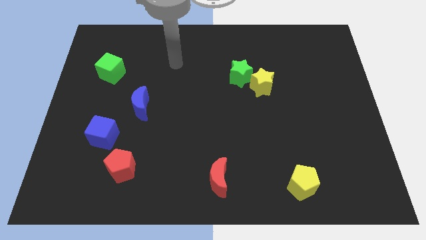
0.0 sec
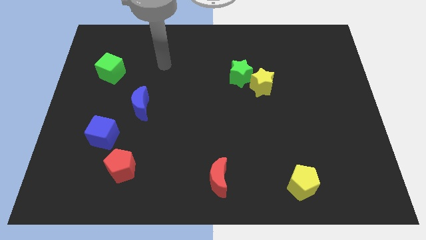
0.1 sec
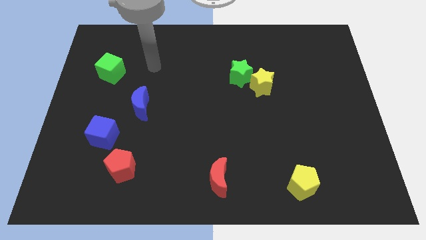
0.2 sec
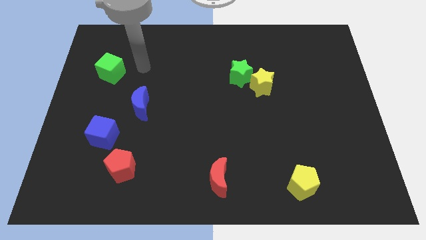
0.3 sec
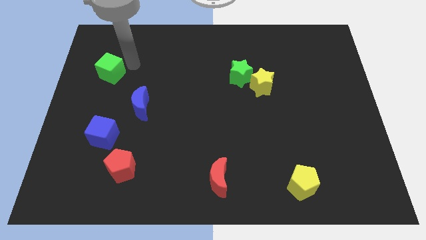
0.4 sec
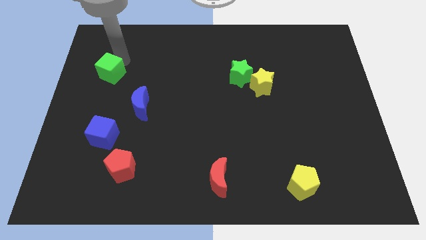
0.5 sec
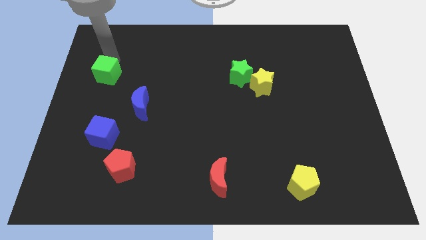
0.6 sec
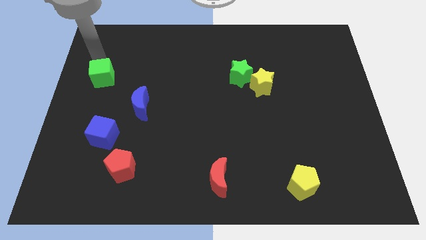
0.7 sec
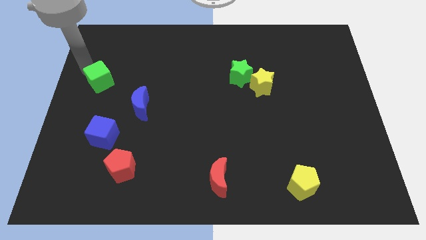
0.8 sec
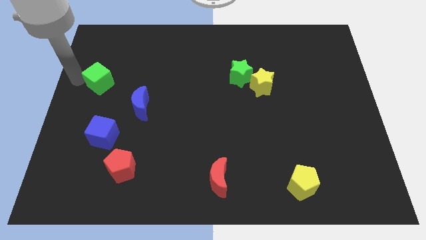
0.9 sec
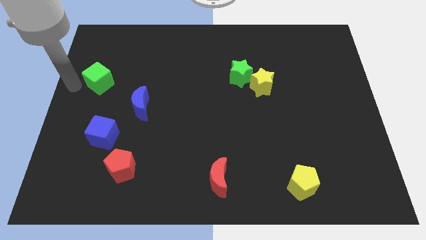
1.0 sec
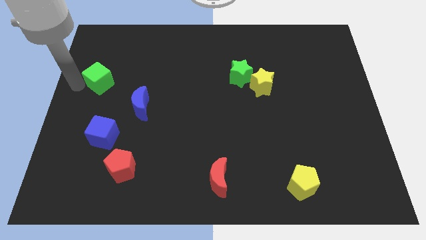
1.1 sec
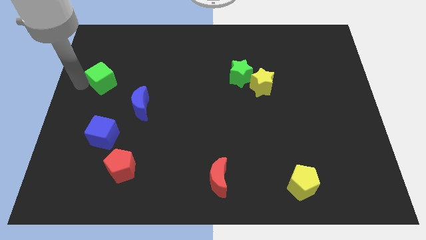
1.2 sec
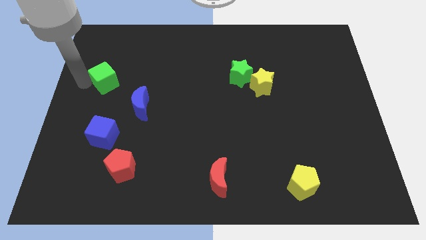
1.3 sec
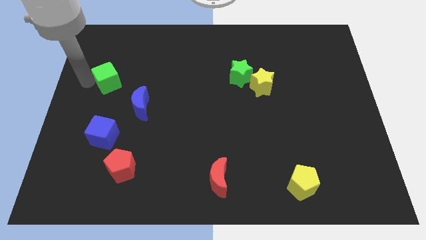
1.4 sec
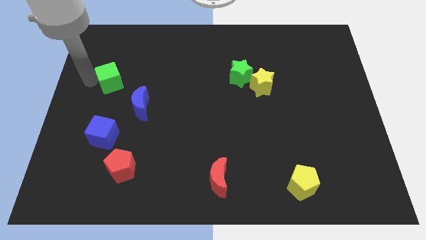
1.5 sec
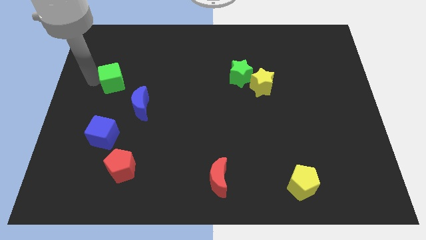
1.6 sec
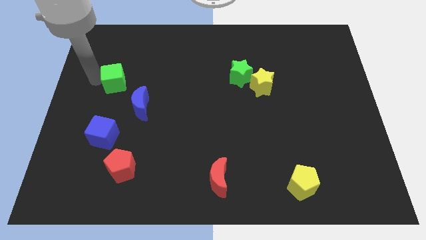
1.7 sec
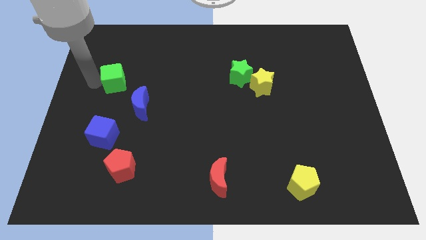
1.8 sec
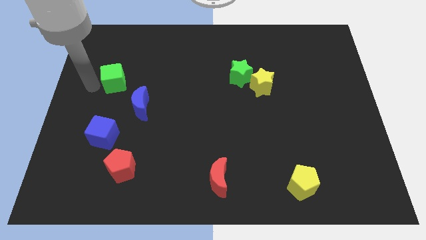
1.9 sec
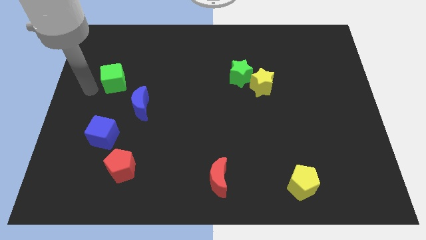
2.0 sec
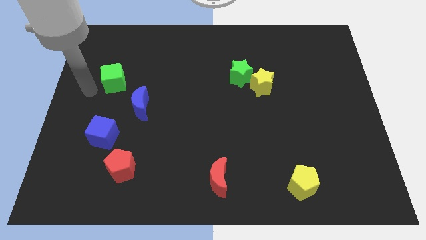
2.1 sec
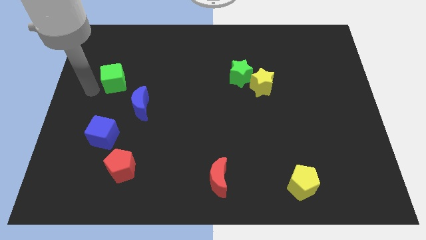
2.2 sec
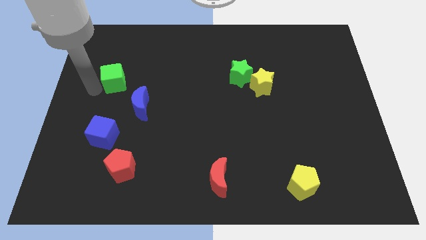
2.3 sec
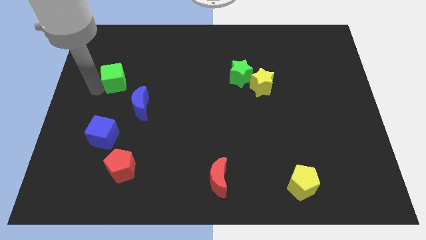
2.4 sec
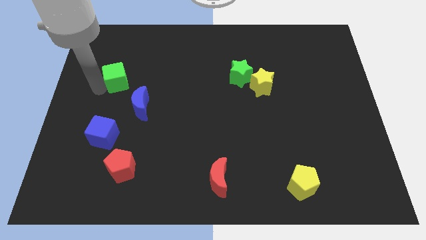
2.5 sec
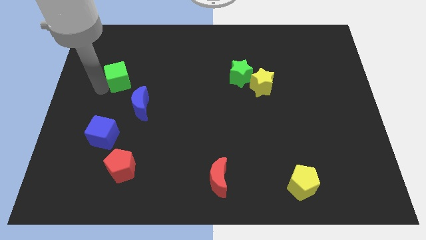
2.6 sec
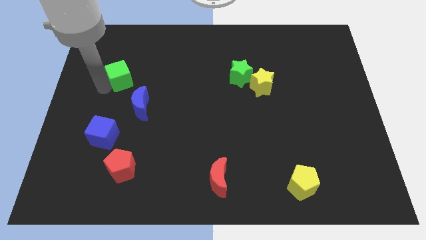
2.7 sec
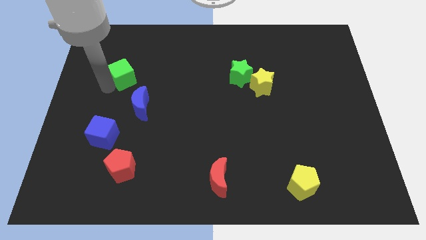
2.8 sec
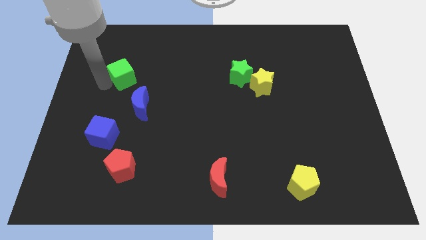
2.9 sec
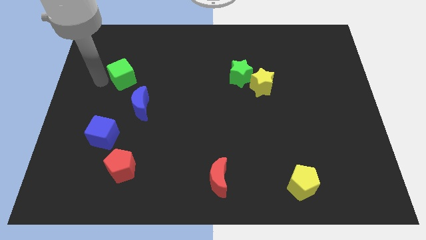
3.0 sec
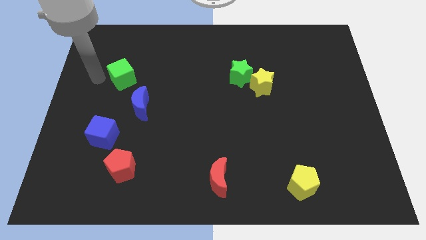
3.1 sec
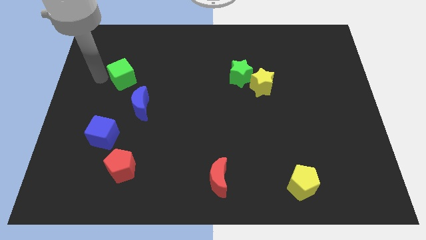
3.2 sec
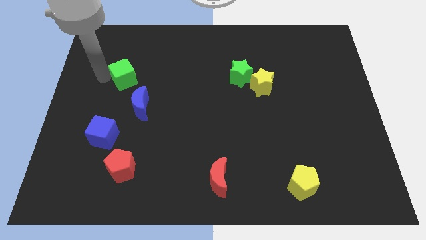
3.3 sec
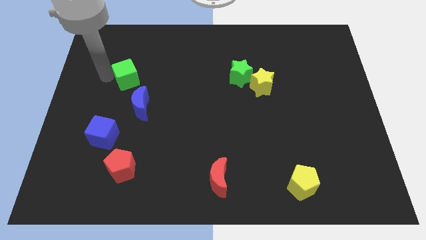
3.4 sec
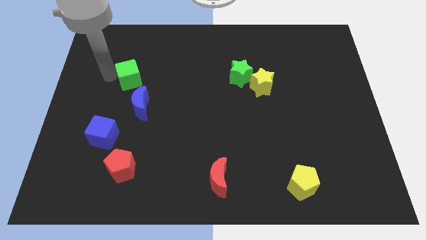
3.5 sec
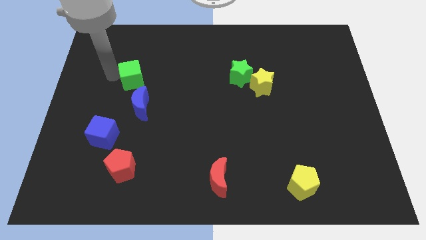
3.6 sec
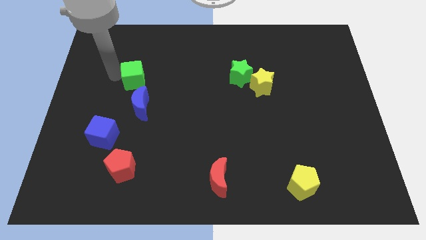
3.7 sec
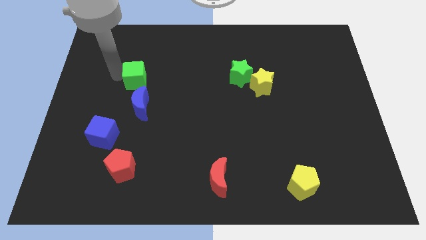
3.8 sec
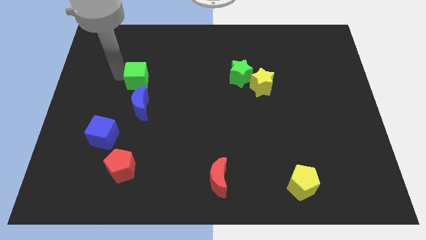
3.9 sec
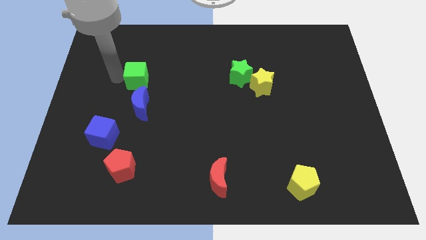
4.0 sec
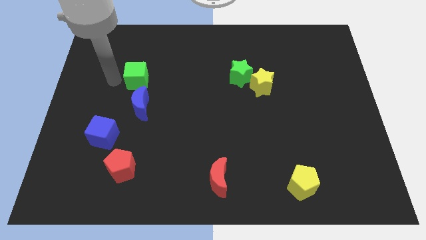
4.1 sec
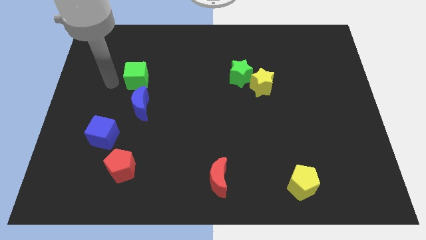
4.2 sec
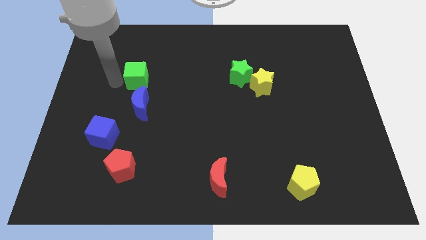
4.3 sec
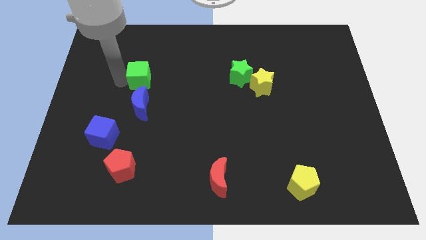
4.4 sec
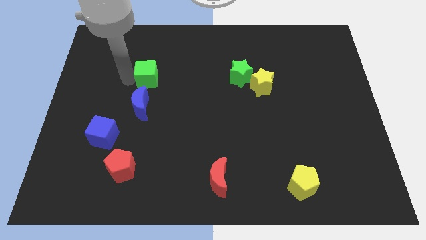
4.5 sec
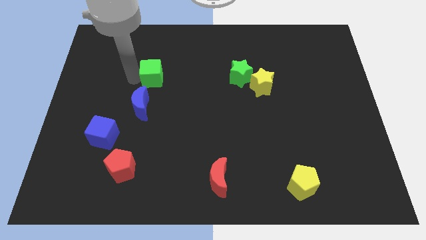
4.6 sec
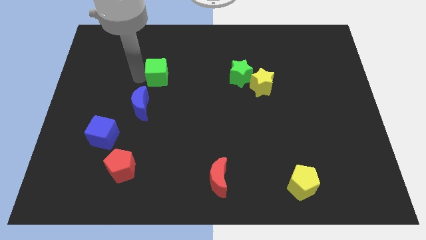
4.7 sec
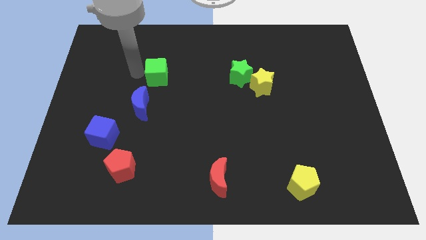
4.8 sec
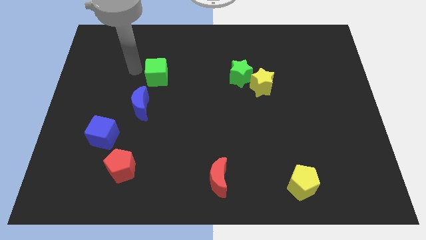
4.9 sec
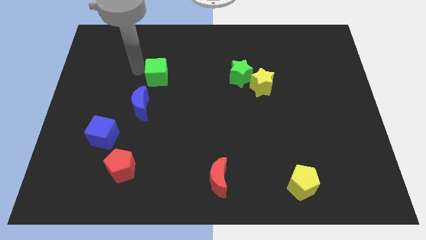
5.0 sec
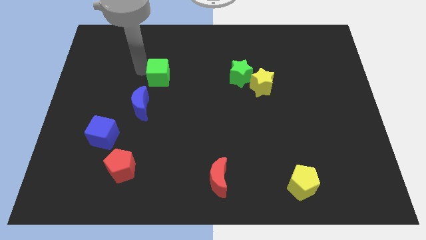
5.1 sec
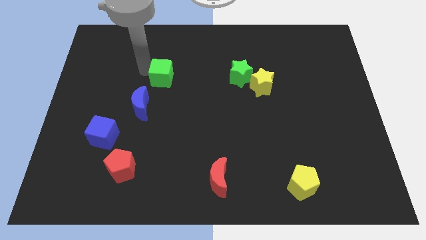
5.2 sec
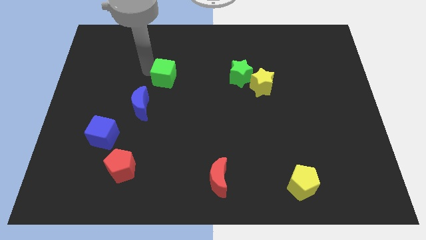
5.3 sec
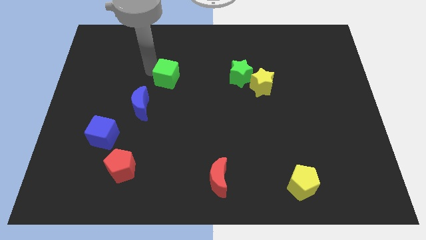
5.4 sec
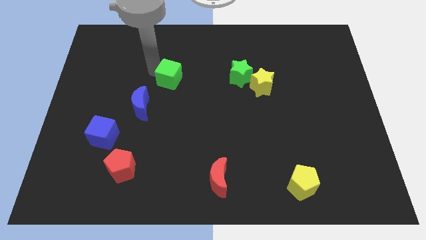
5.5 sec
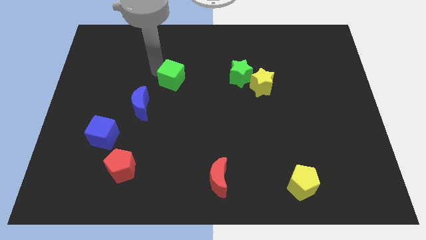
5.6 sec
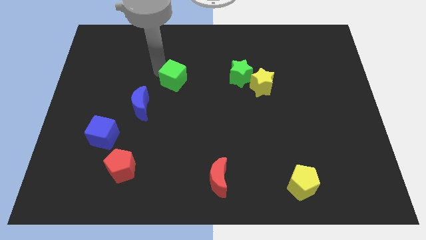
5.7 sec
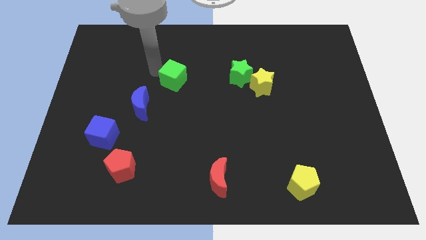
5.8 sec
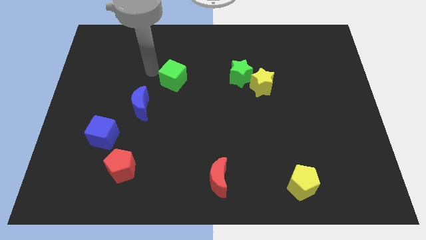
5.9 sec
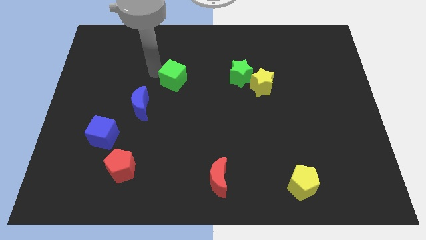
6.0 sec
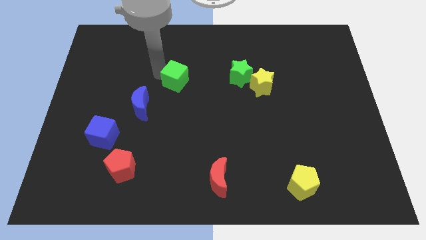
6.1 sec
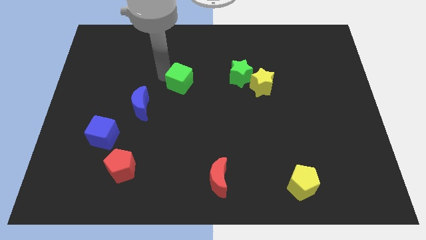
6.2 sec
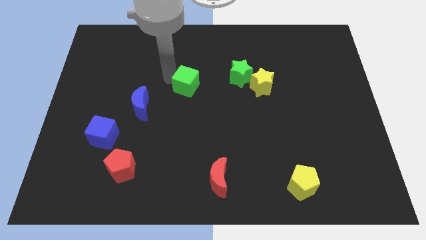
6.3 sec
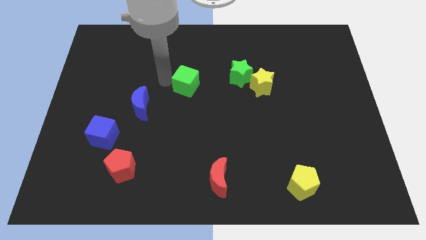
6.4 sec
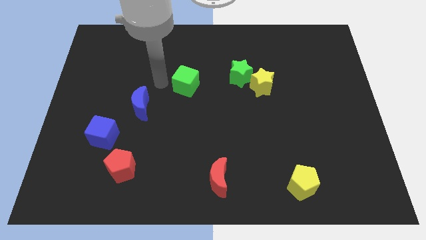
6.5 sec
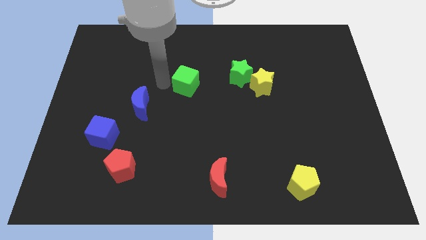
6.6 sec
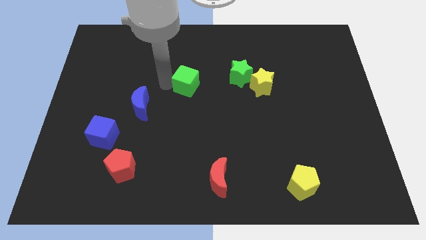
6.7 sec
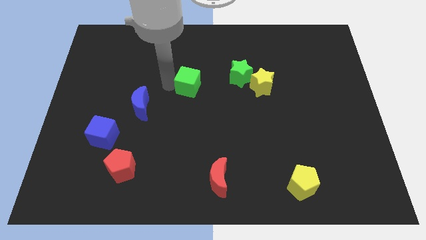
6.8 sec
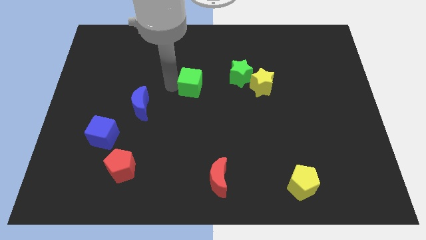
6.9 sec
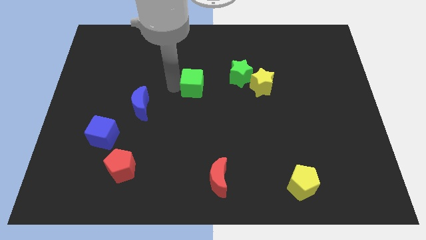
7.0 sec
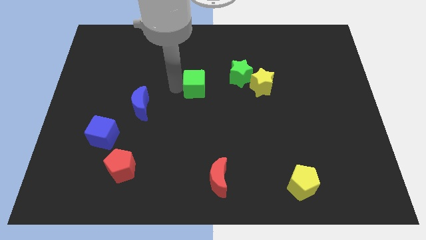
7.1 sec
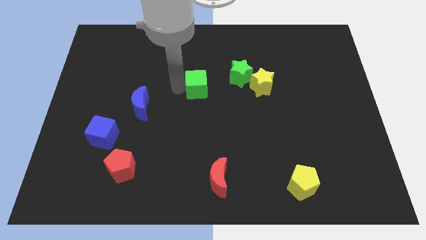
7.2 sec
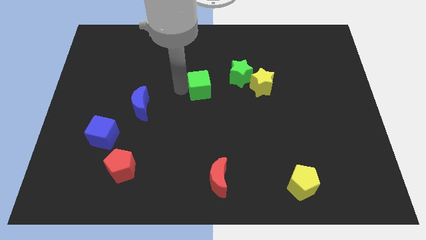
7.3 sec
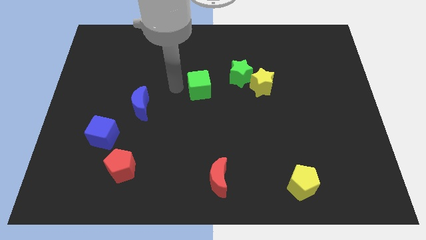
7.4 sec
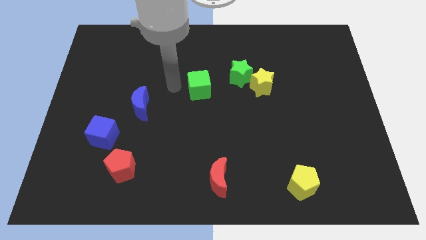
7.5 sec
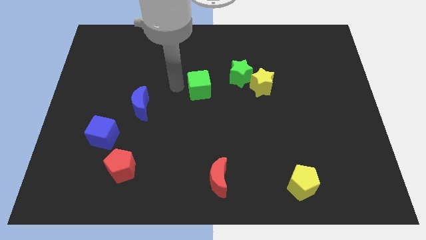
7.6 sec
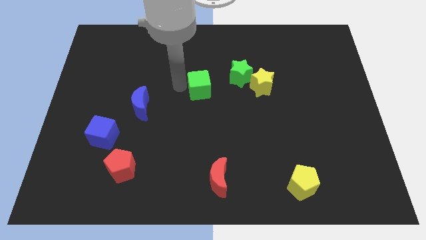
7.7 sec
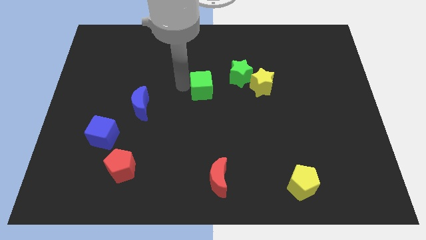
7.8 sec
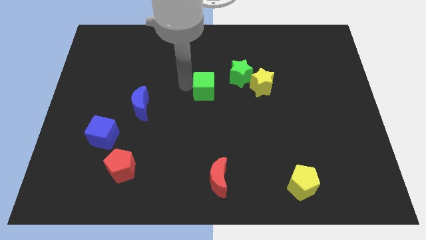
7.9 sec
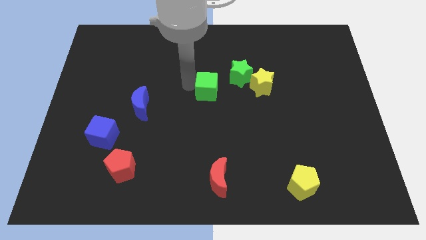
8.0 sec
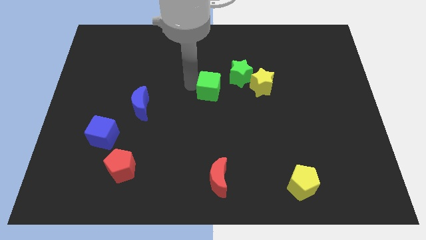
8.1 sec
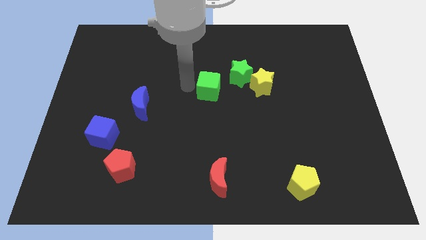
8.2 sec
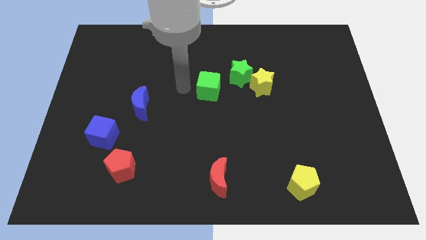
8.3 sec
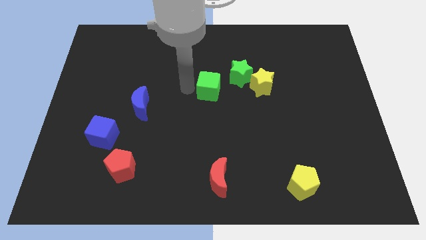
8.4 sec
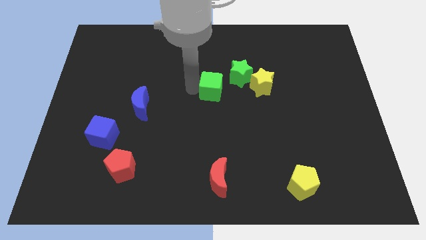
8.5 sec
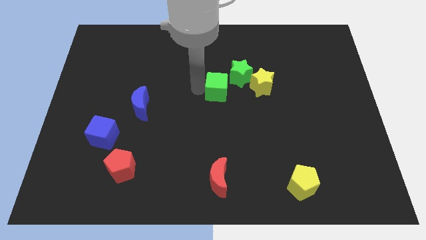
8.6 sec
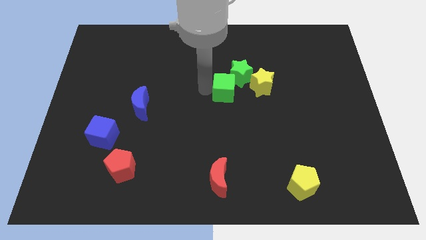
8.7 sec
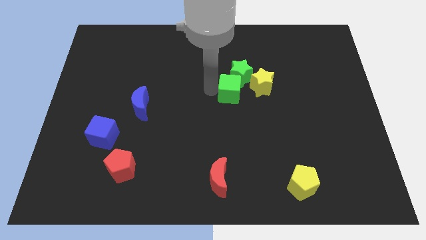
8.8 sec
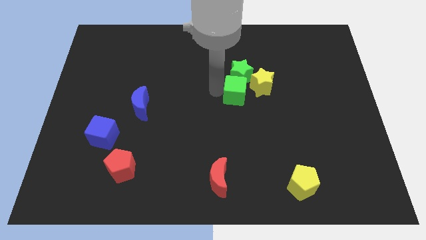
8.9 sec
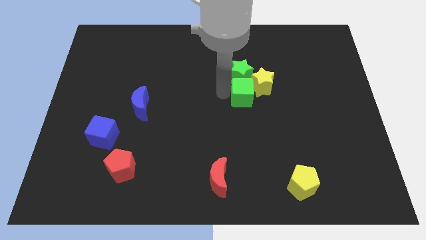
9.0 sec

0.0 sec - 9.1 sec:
move the green cube towards the yellow star
